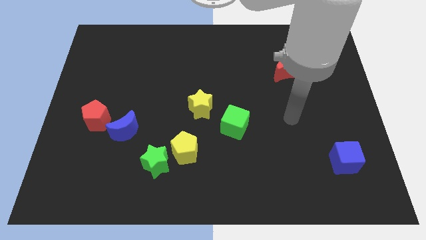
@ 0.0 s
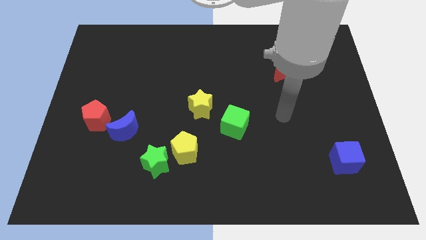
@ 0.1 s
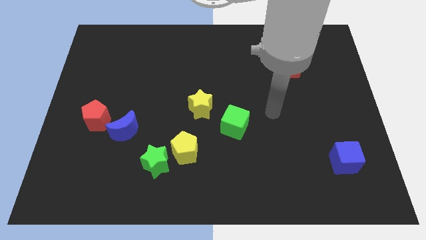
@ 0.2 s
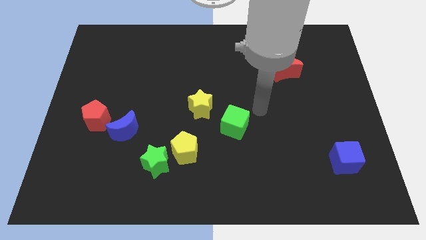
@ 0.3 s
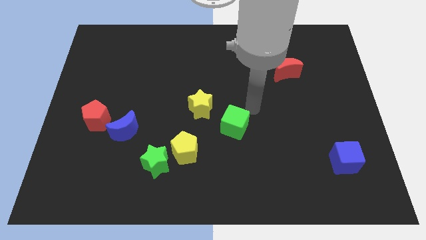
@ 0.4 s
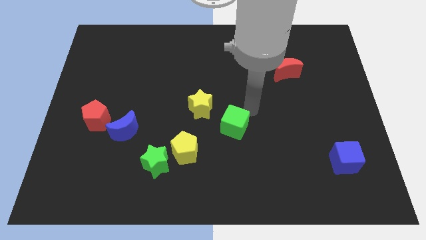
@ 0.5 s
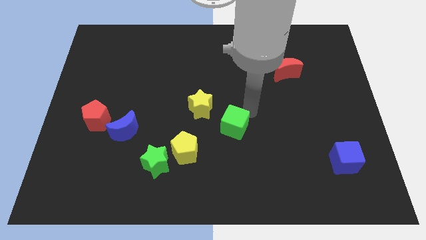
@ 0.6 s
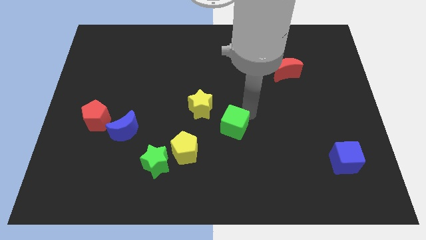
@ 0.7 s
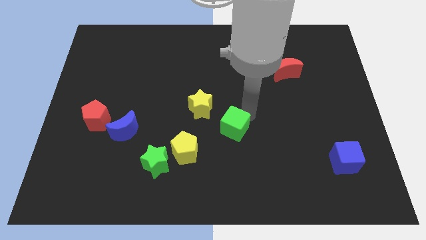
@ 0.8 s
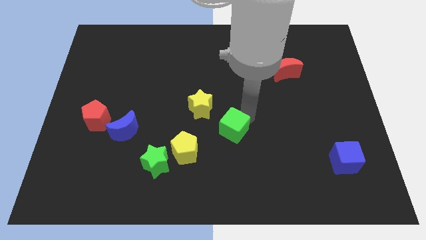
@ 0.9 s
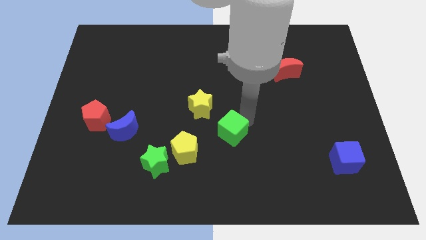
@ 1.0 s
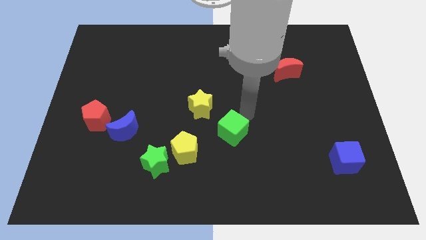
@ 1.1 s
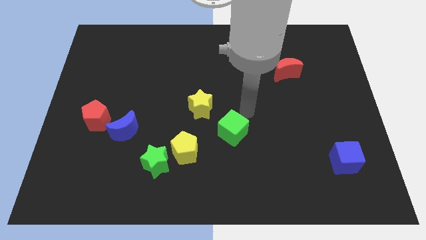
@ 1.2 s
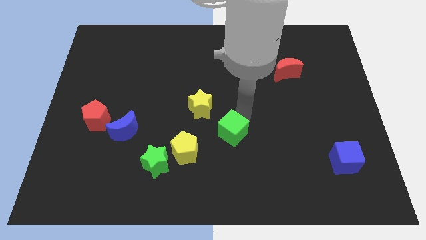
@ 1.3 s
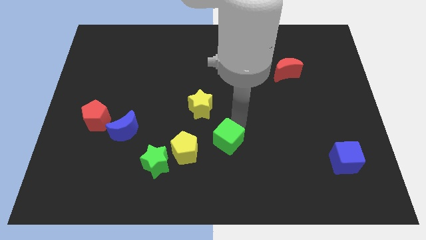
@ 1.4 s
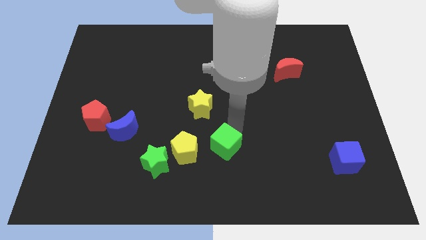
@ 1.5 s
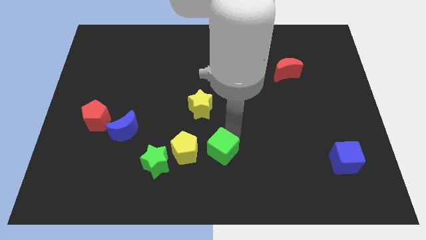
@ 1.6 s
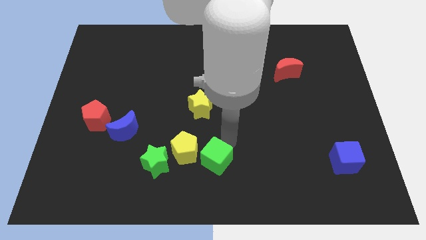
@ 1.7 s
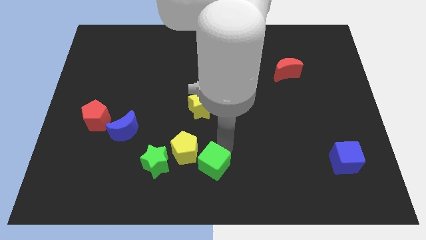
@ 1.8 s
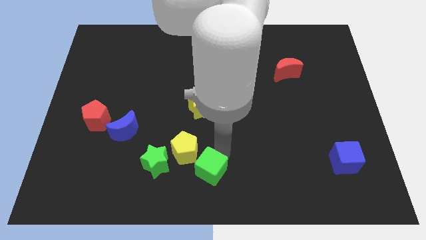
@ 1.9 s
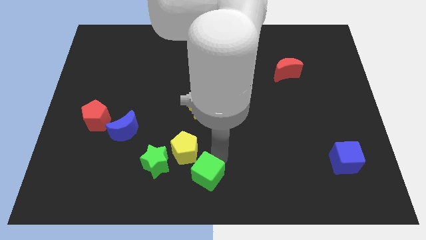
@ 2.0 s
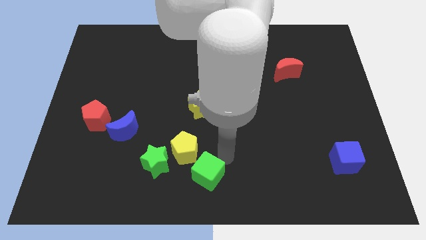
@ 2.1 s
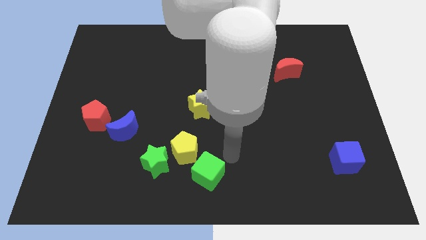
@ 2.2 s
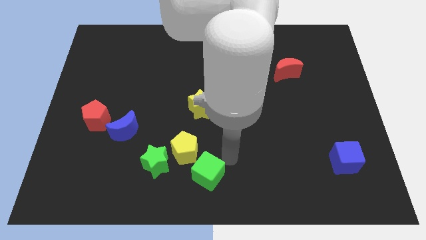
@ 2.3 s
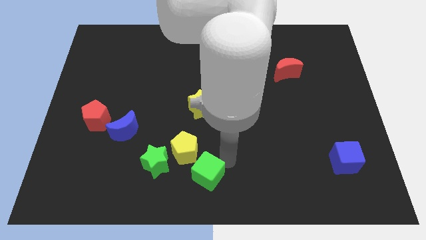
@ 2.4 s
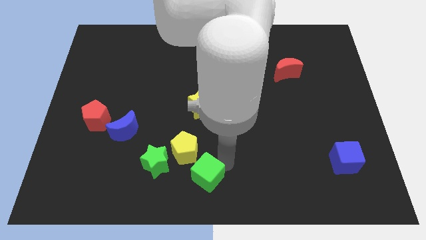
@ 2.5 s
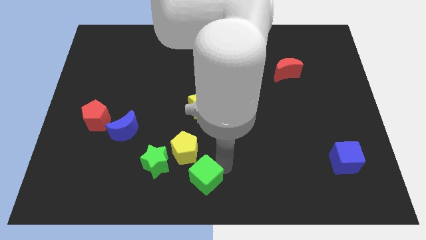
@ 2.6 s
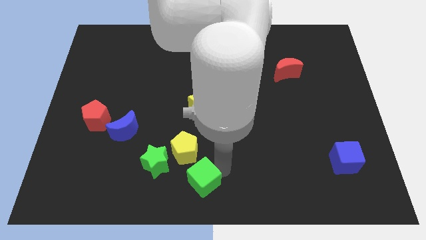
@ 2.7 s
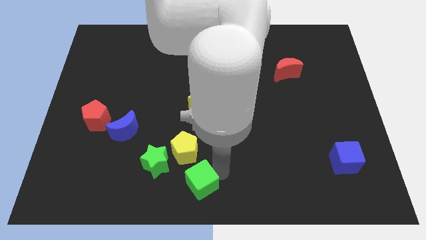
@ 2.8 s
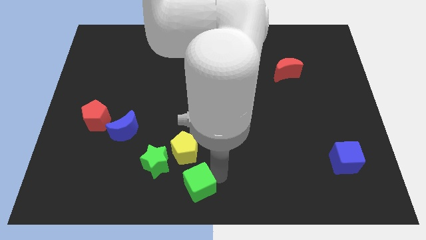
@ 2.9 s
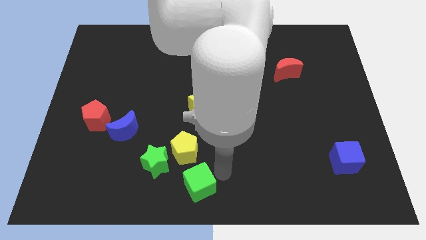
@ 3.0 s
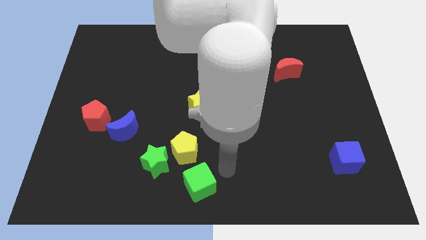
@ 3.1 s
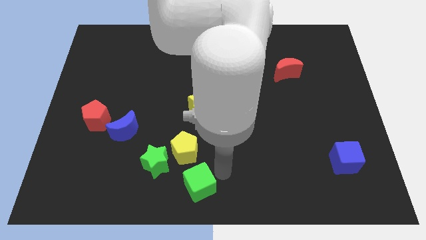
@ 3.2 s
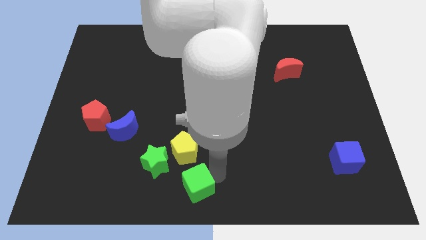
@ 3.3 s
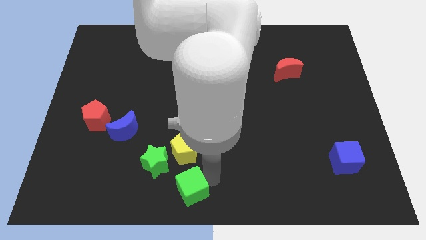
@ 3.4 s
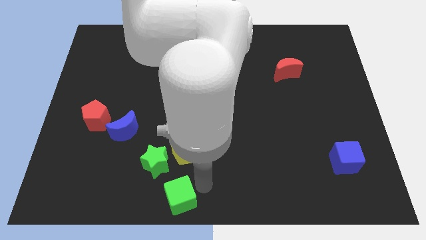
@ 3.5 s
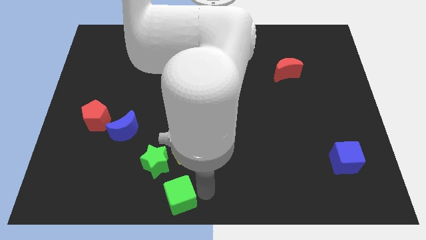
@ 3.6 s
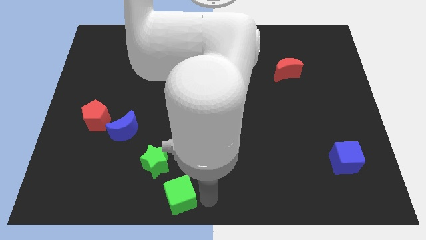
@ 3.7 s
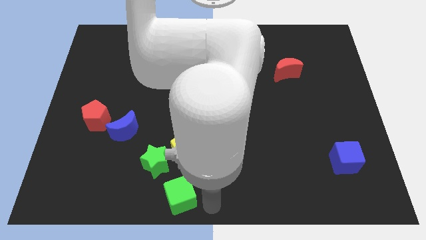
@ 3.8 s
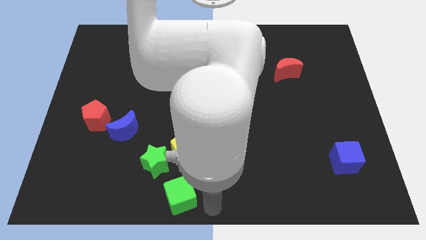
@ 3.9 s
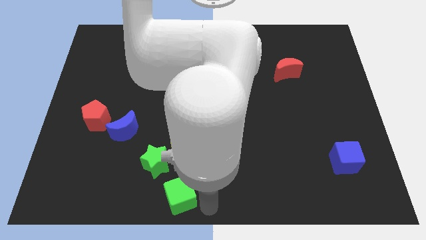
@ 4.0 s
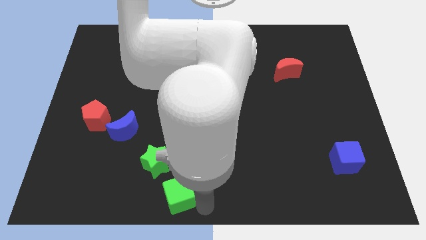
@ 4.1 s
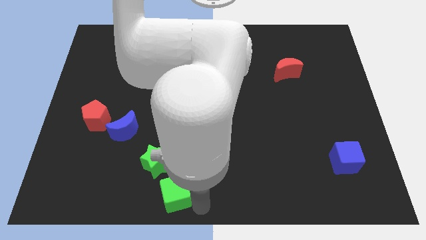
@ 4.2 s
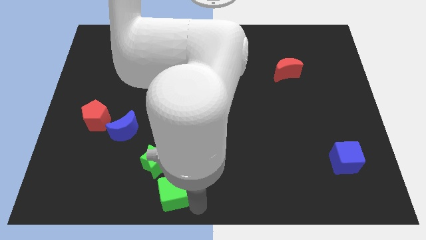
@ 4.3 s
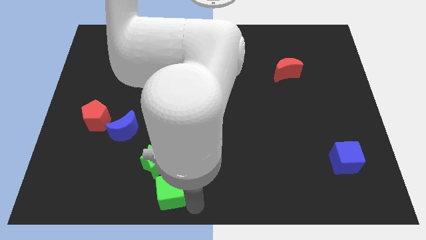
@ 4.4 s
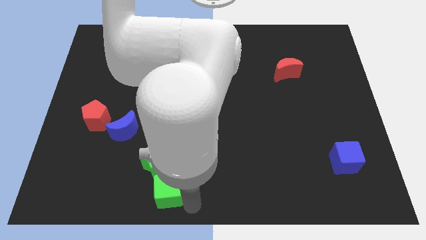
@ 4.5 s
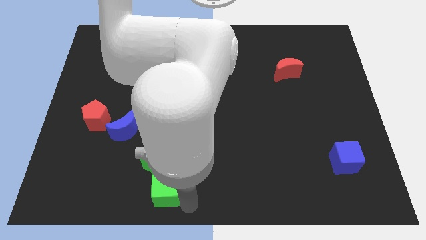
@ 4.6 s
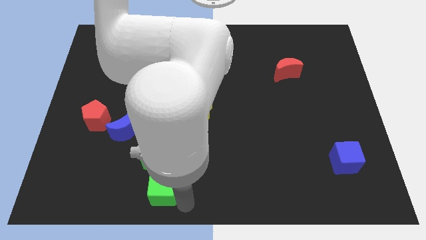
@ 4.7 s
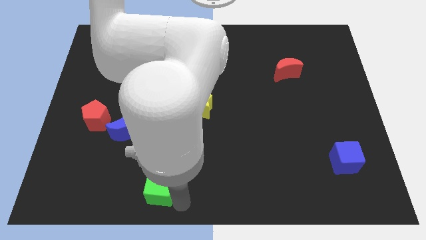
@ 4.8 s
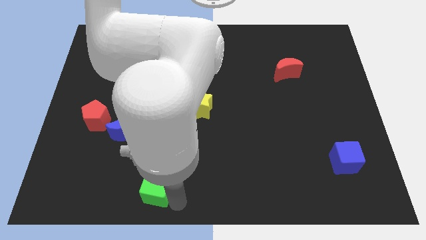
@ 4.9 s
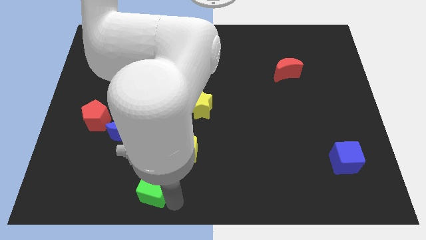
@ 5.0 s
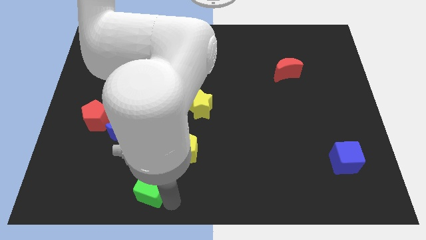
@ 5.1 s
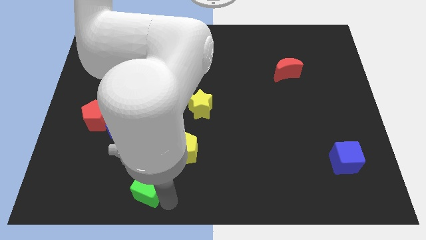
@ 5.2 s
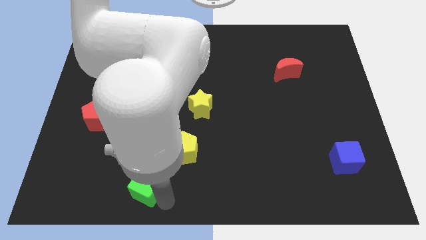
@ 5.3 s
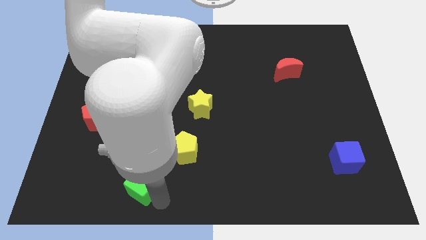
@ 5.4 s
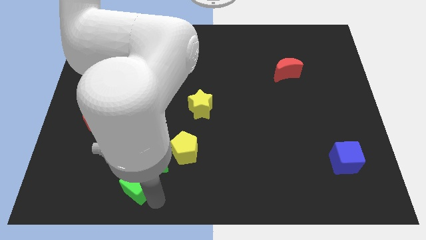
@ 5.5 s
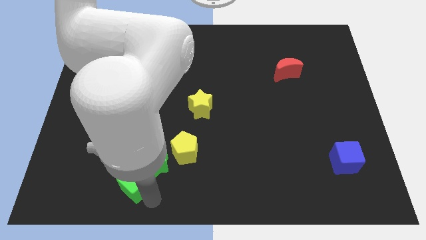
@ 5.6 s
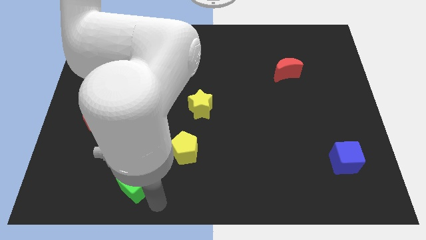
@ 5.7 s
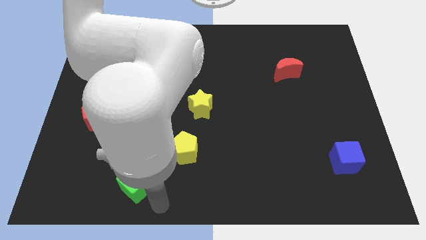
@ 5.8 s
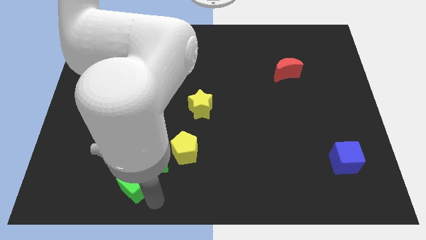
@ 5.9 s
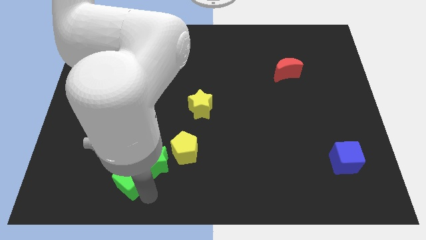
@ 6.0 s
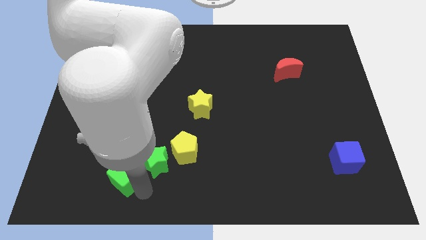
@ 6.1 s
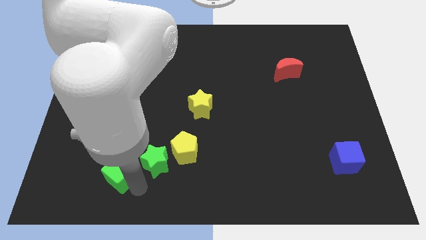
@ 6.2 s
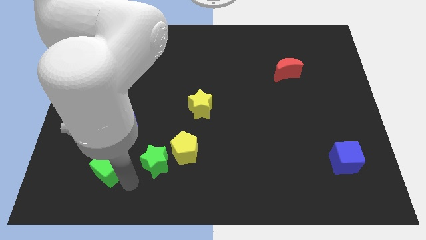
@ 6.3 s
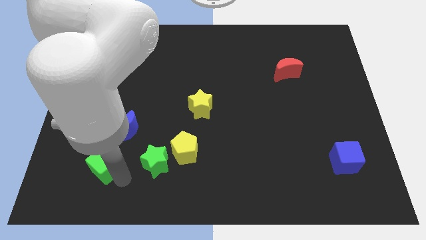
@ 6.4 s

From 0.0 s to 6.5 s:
put the green cube diagonally down and to the left of the blue moon

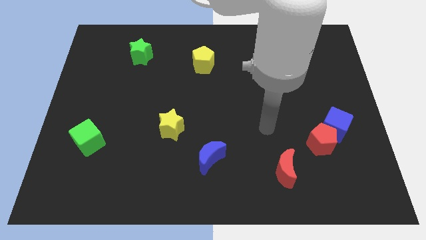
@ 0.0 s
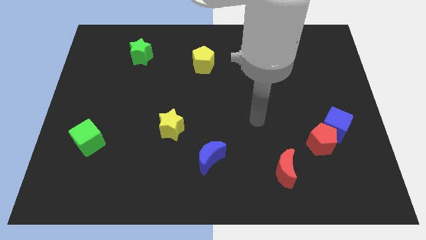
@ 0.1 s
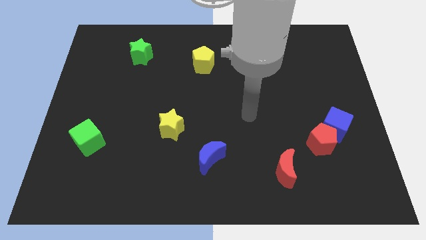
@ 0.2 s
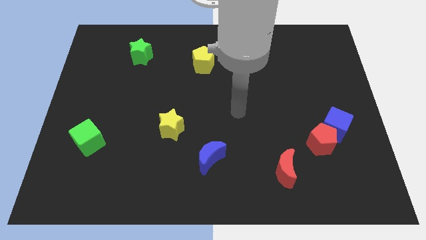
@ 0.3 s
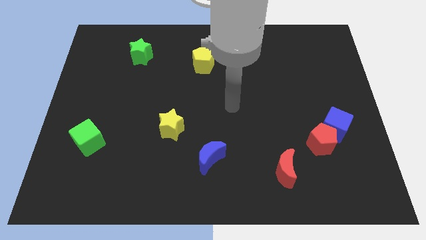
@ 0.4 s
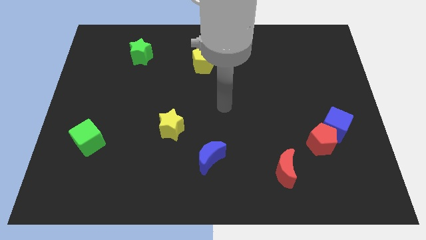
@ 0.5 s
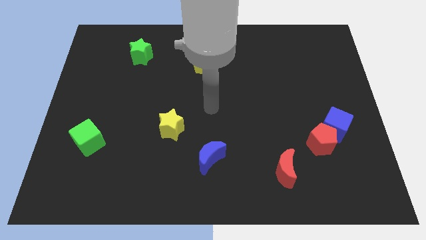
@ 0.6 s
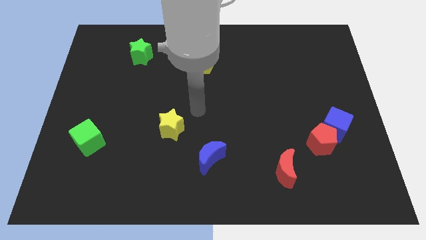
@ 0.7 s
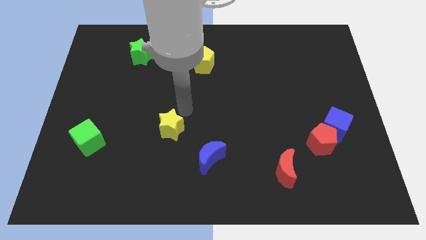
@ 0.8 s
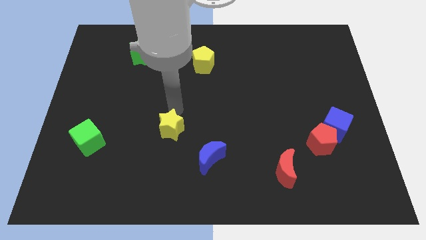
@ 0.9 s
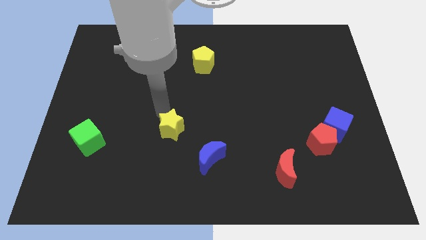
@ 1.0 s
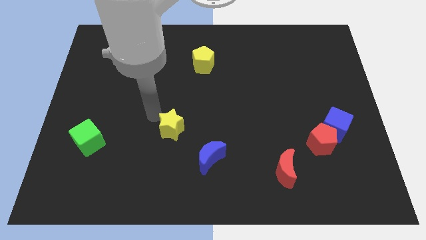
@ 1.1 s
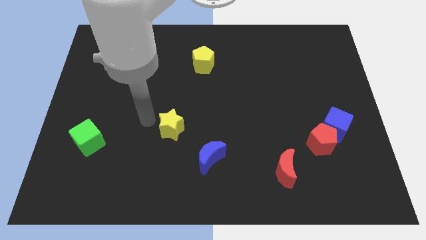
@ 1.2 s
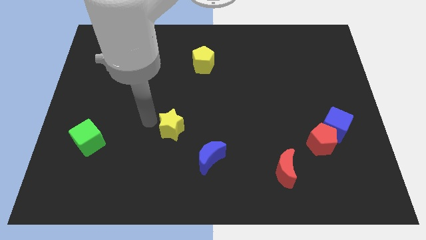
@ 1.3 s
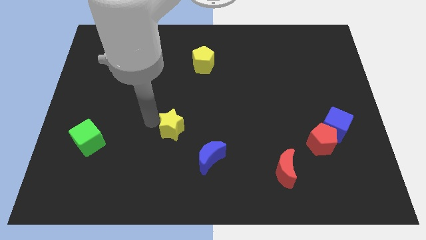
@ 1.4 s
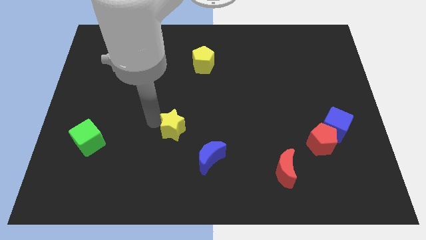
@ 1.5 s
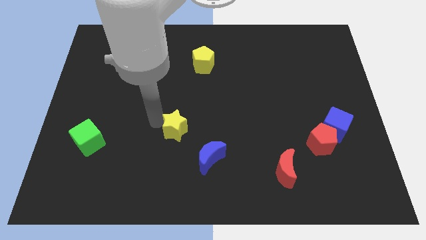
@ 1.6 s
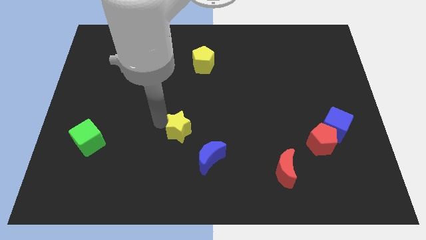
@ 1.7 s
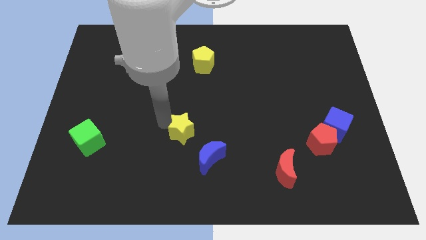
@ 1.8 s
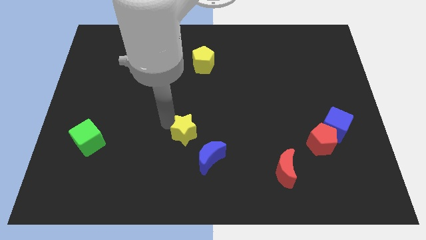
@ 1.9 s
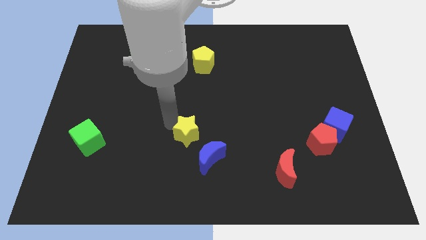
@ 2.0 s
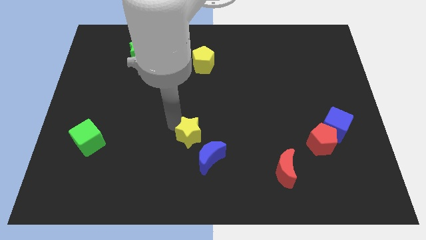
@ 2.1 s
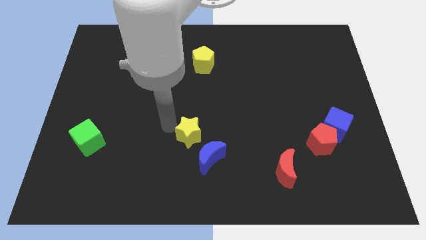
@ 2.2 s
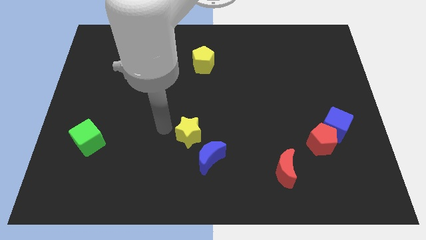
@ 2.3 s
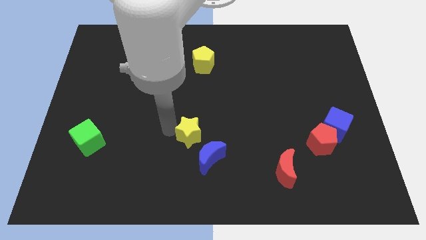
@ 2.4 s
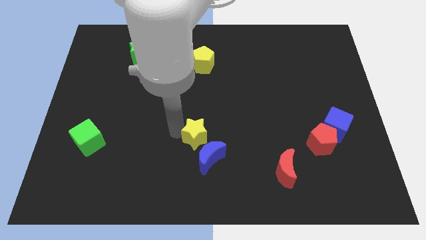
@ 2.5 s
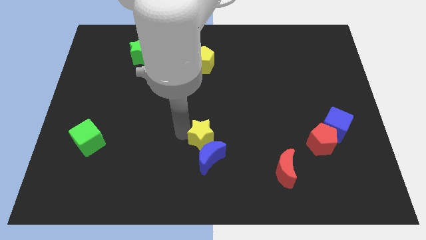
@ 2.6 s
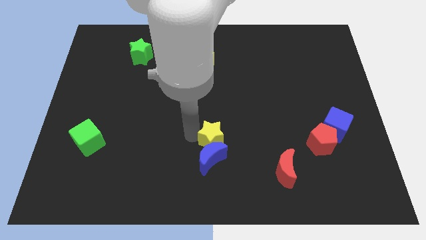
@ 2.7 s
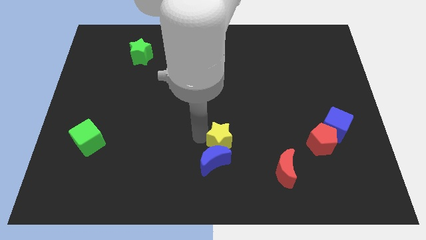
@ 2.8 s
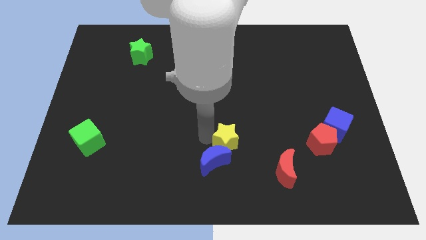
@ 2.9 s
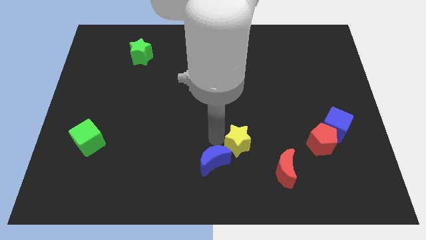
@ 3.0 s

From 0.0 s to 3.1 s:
slide the yellow star to the right of the blue moon
